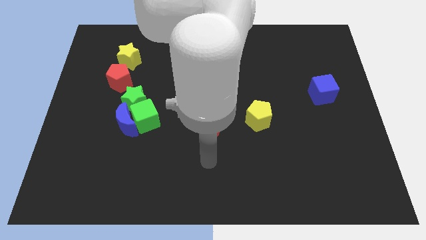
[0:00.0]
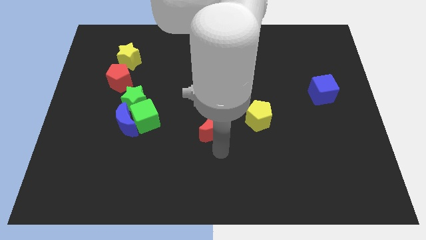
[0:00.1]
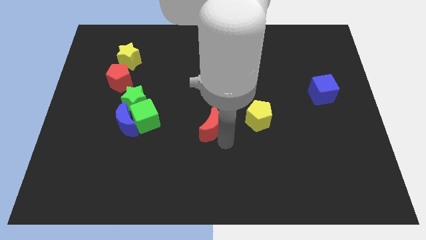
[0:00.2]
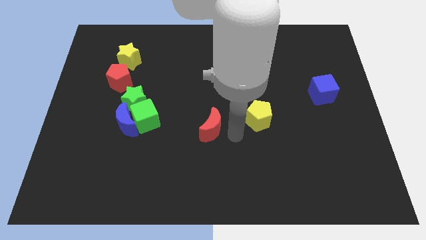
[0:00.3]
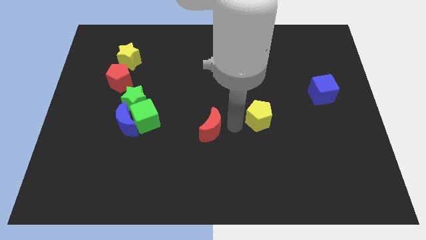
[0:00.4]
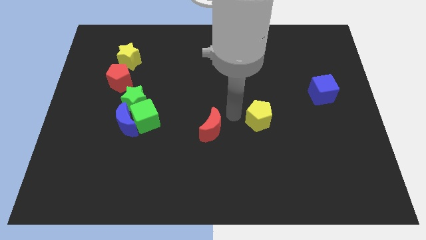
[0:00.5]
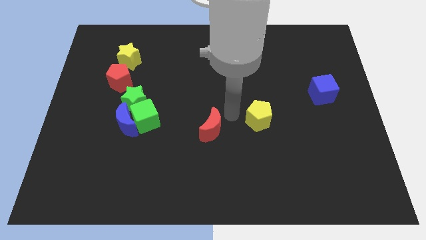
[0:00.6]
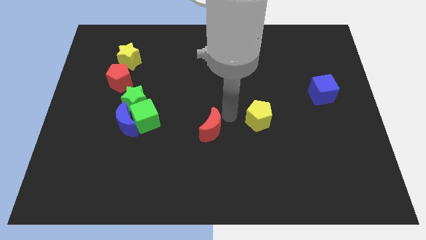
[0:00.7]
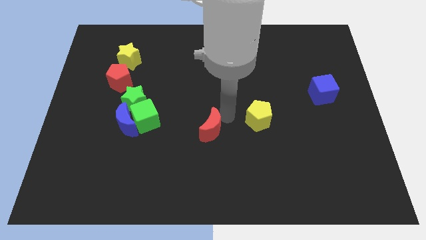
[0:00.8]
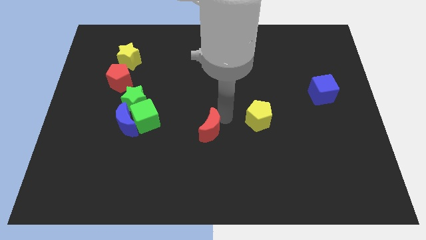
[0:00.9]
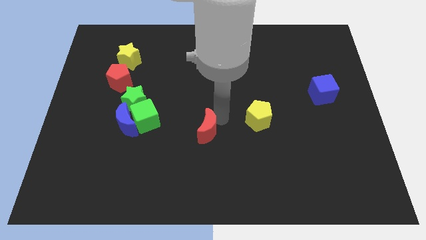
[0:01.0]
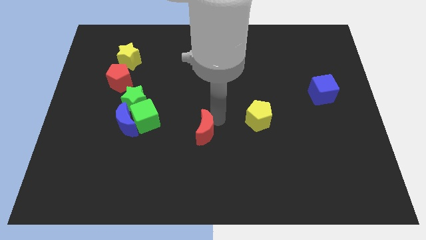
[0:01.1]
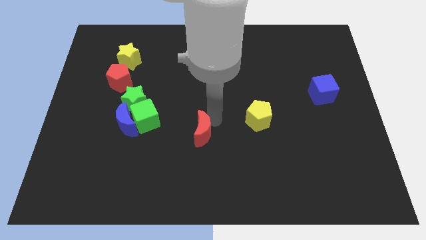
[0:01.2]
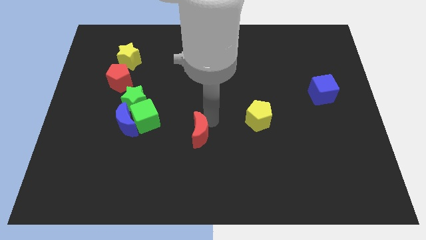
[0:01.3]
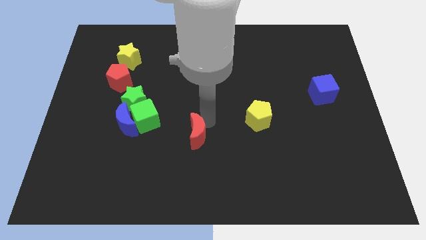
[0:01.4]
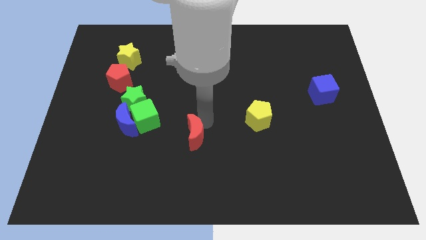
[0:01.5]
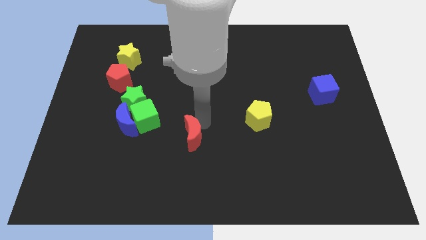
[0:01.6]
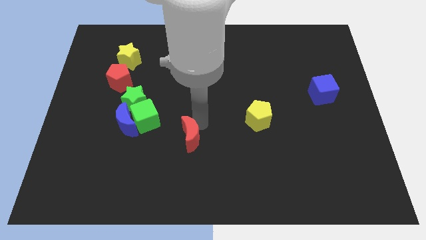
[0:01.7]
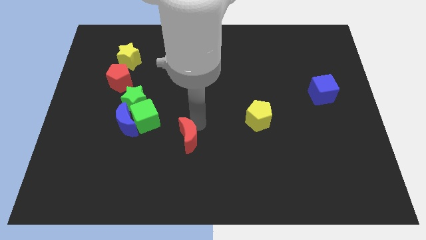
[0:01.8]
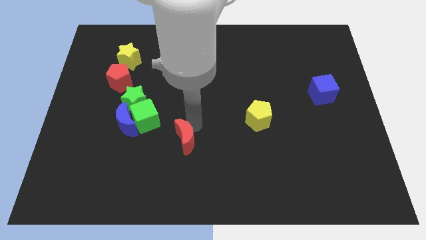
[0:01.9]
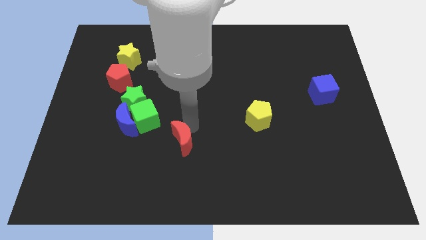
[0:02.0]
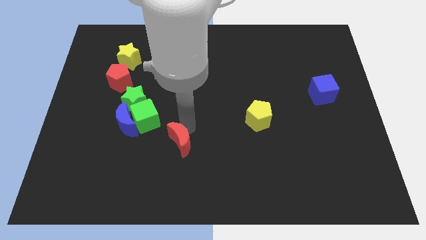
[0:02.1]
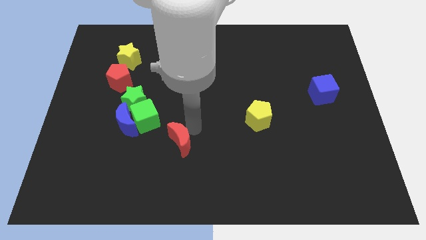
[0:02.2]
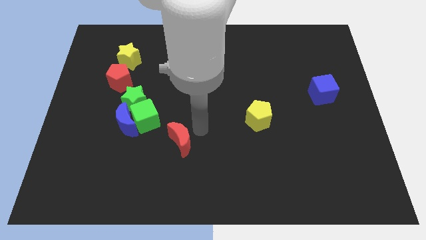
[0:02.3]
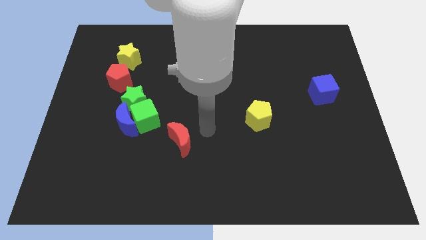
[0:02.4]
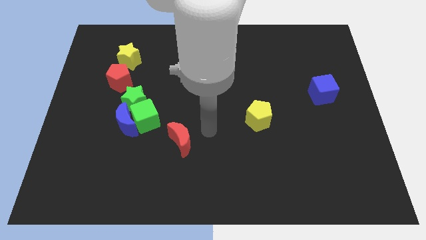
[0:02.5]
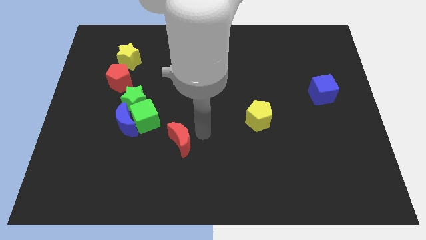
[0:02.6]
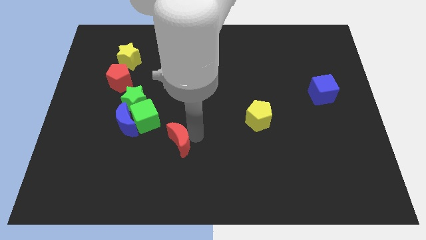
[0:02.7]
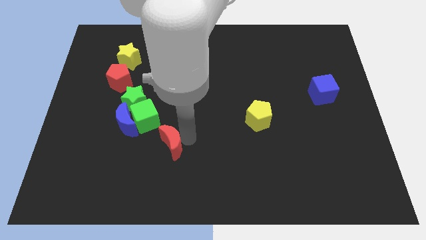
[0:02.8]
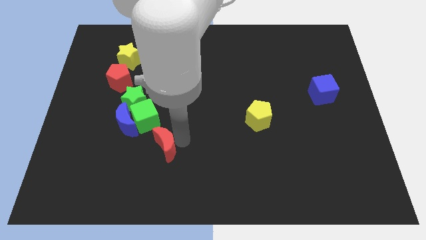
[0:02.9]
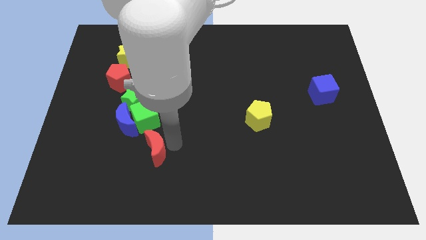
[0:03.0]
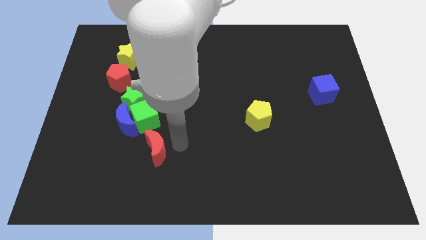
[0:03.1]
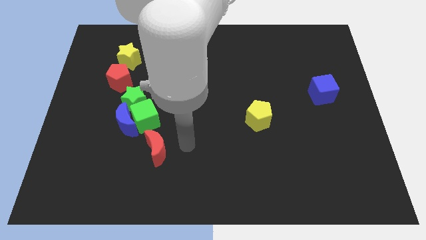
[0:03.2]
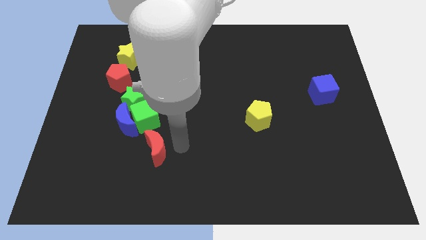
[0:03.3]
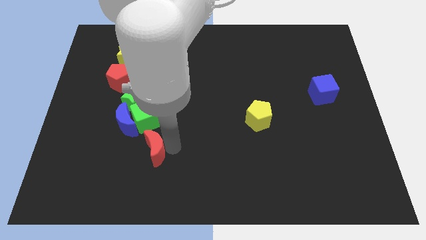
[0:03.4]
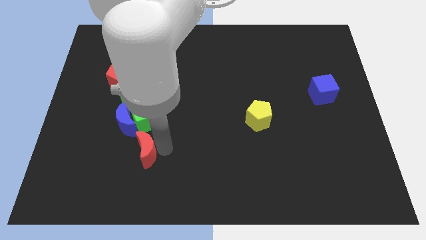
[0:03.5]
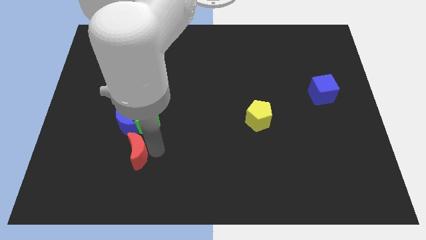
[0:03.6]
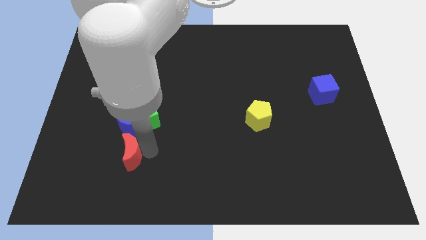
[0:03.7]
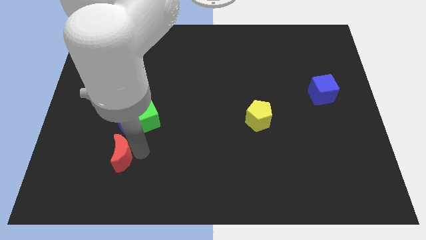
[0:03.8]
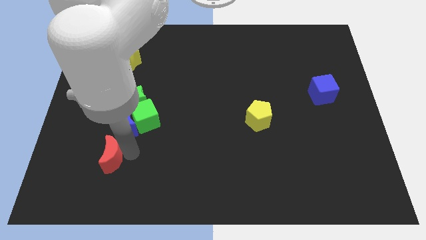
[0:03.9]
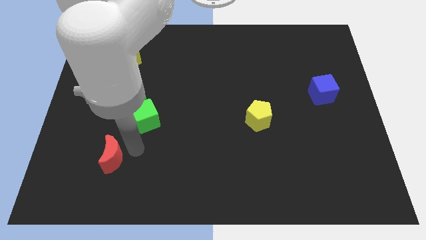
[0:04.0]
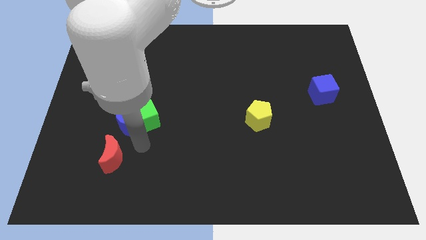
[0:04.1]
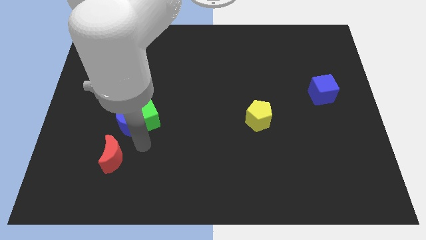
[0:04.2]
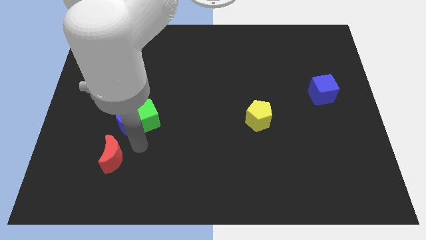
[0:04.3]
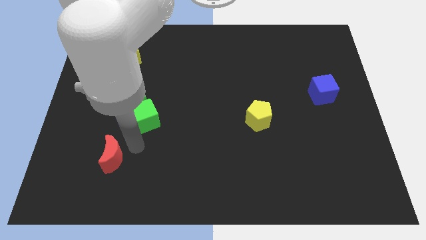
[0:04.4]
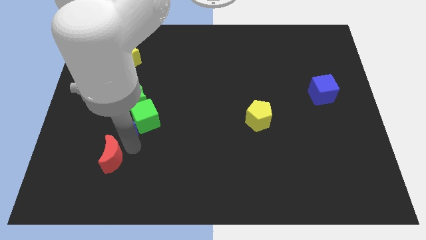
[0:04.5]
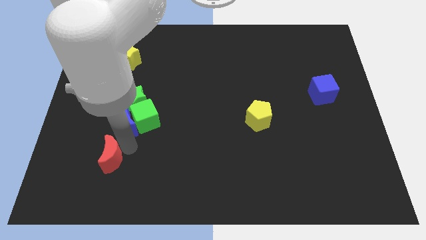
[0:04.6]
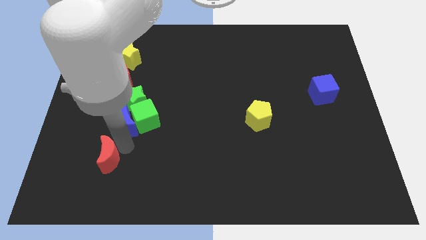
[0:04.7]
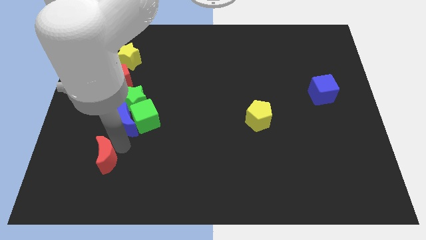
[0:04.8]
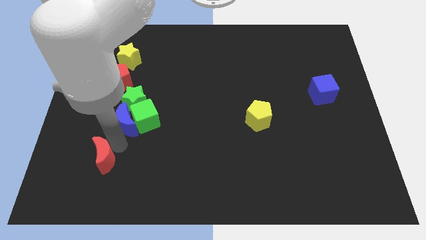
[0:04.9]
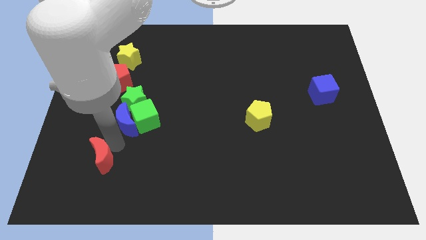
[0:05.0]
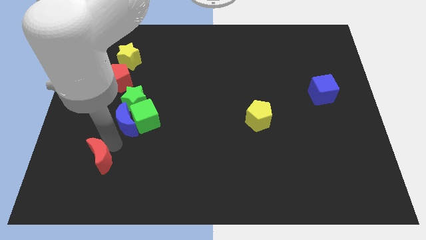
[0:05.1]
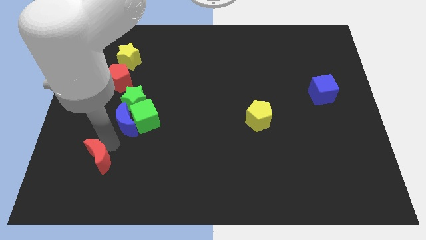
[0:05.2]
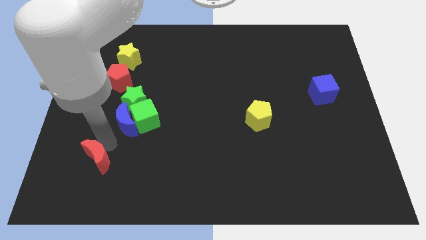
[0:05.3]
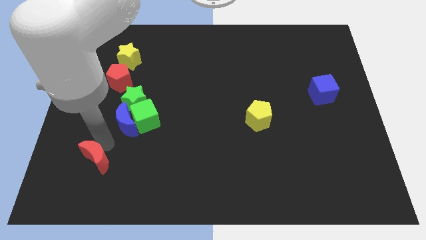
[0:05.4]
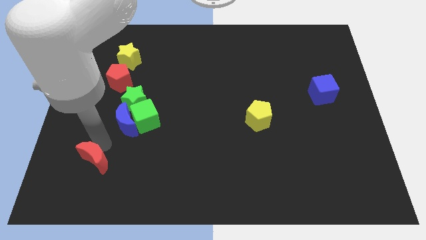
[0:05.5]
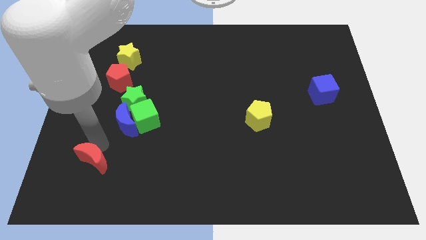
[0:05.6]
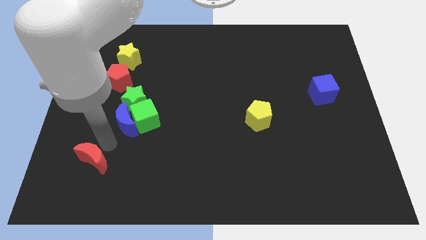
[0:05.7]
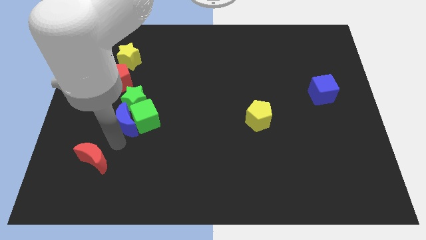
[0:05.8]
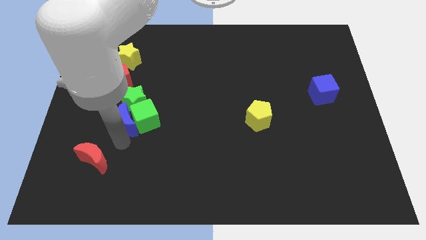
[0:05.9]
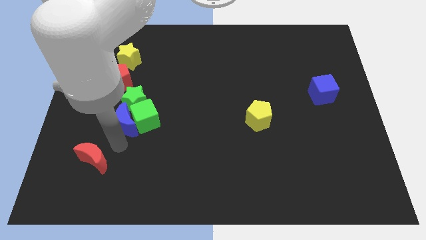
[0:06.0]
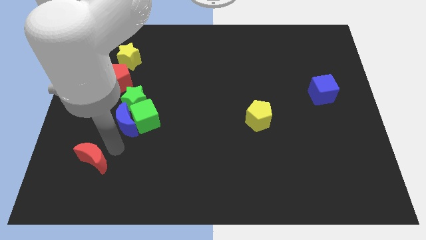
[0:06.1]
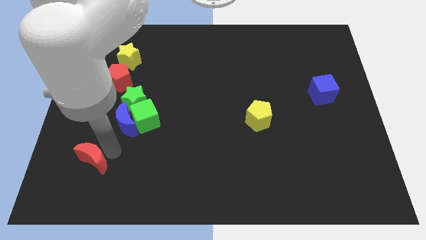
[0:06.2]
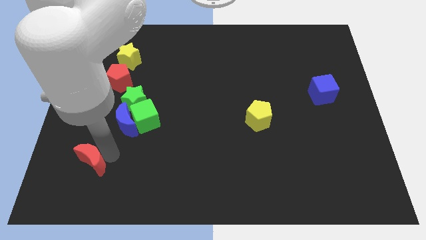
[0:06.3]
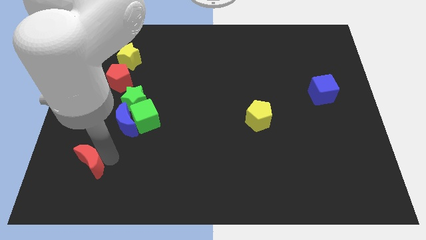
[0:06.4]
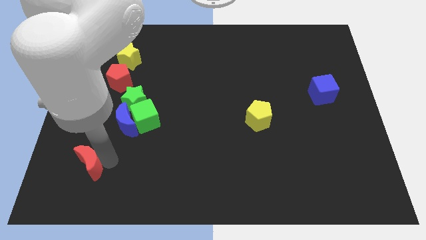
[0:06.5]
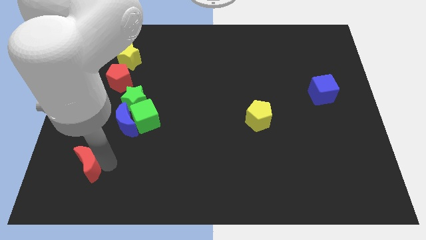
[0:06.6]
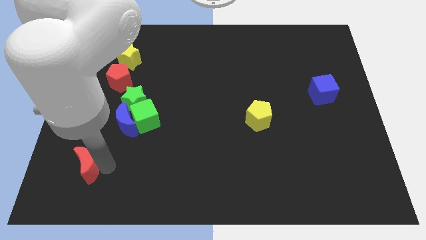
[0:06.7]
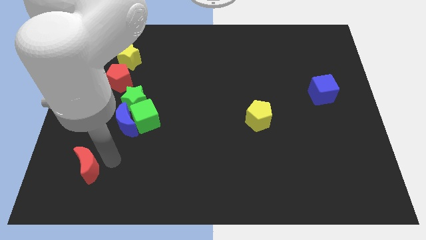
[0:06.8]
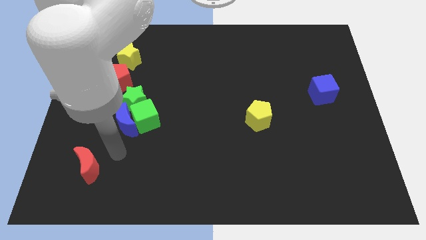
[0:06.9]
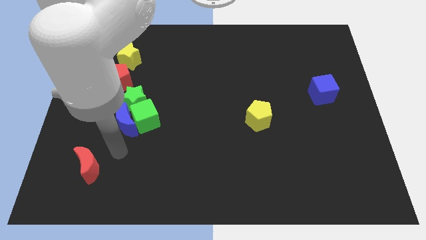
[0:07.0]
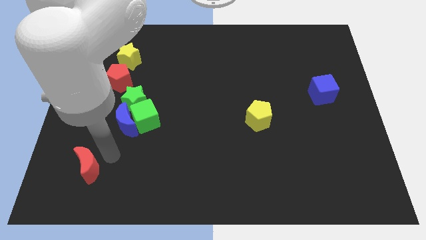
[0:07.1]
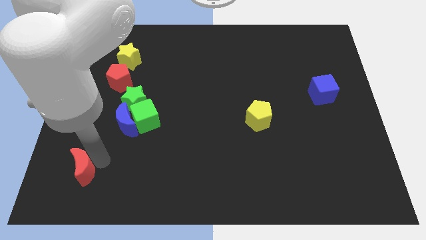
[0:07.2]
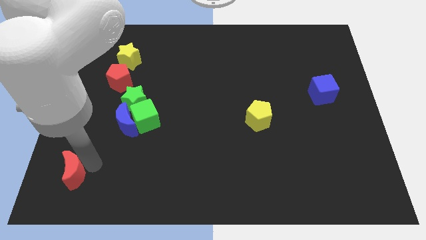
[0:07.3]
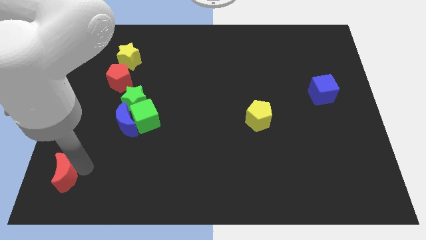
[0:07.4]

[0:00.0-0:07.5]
move the red moon to the bottom left of the board

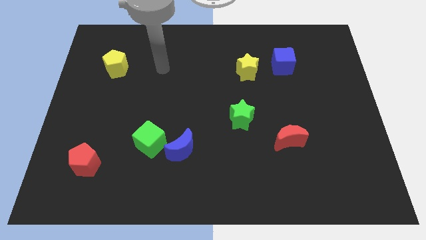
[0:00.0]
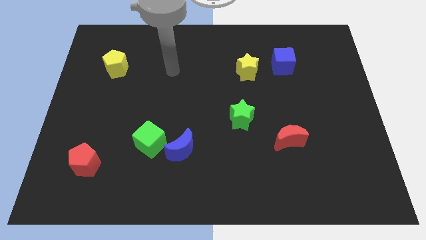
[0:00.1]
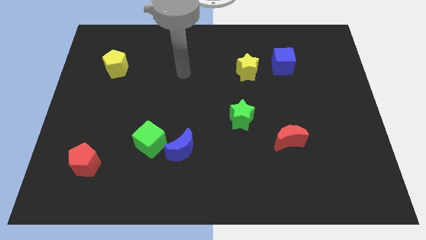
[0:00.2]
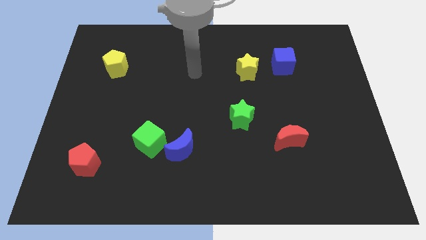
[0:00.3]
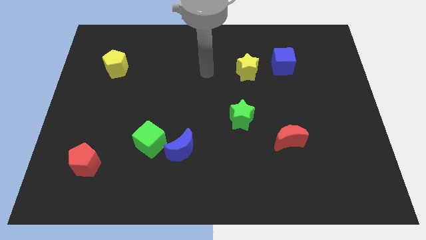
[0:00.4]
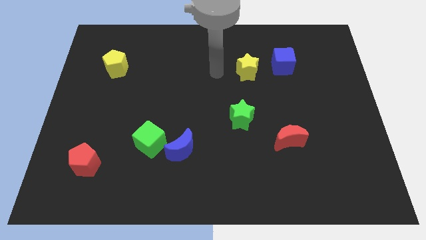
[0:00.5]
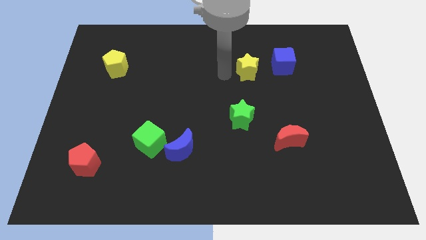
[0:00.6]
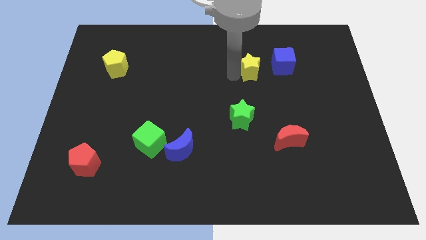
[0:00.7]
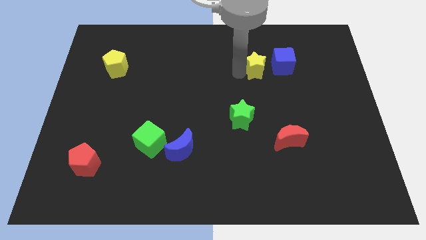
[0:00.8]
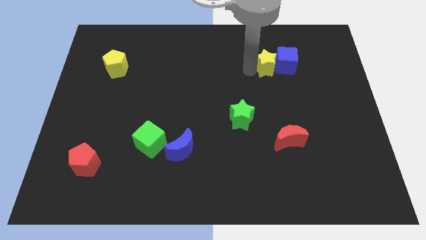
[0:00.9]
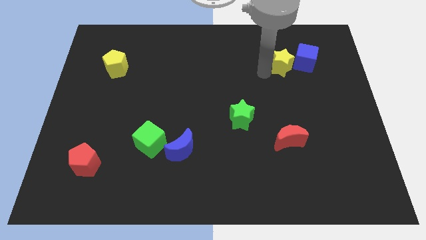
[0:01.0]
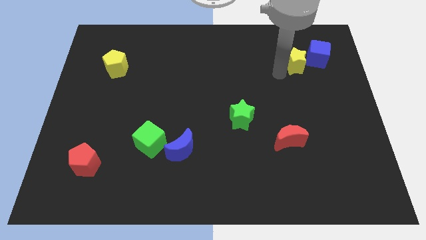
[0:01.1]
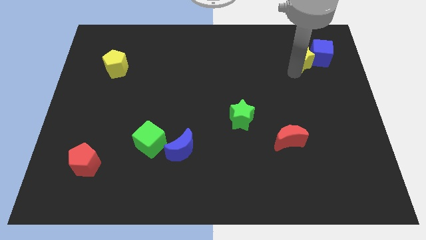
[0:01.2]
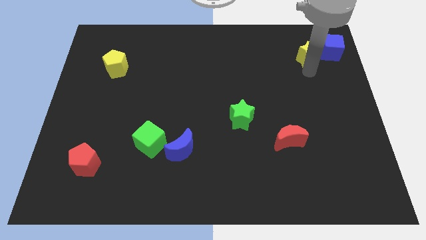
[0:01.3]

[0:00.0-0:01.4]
move the blue cube to the top right
